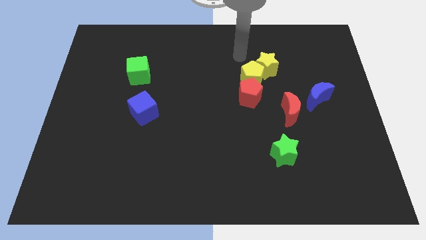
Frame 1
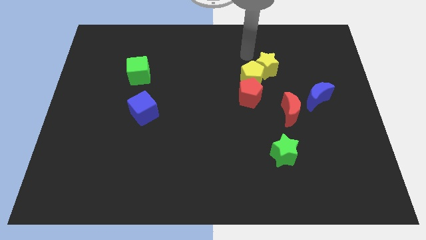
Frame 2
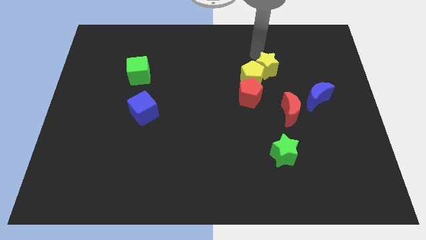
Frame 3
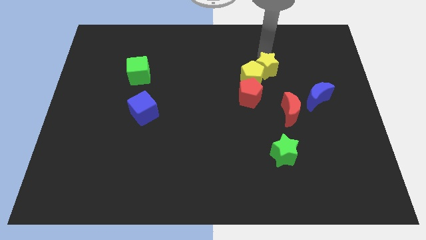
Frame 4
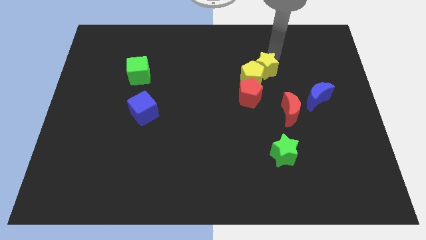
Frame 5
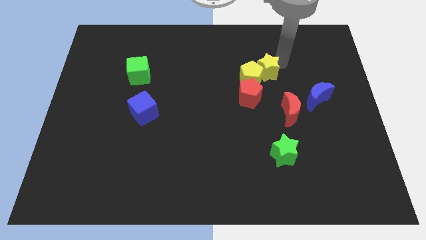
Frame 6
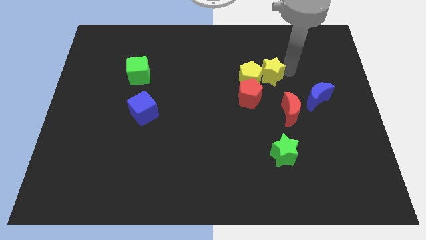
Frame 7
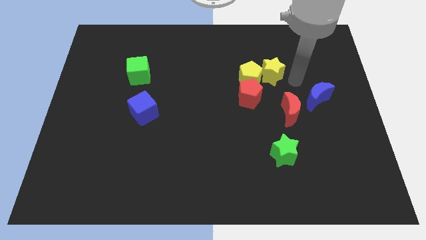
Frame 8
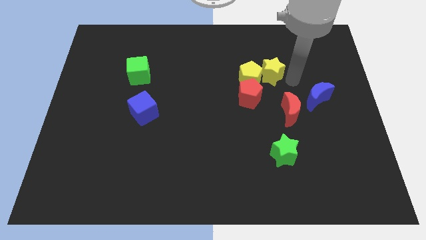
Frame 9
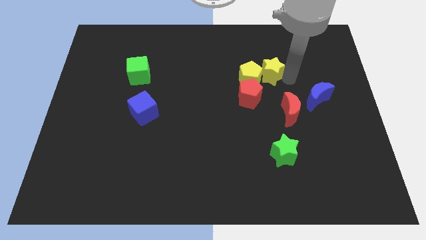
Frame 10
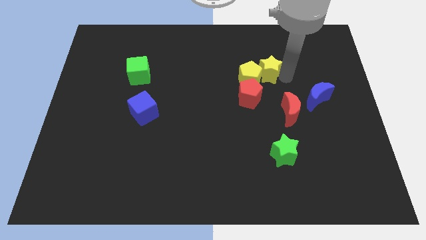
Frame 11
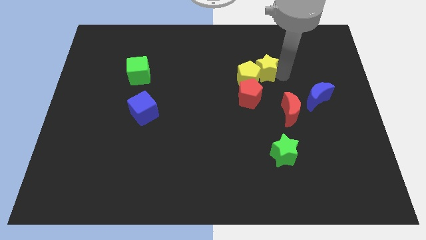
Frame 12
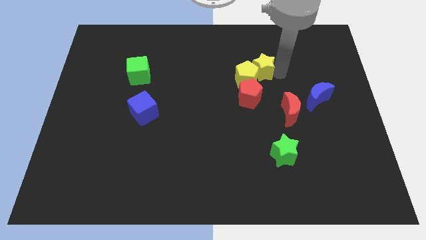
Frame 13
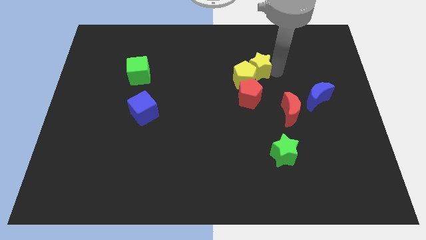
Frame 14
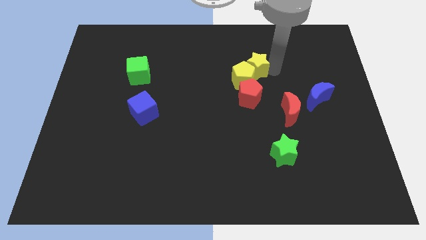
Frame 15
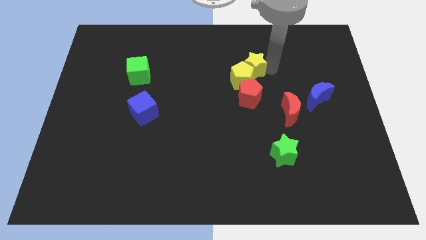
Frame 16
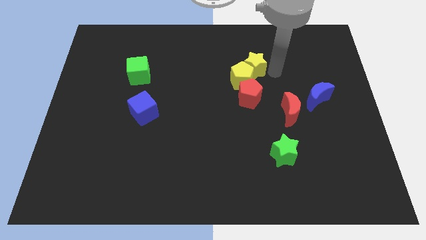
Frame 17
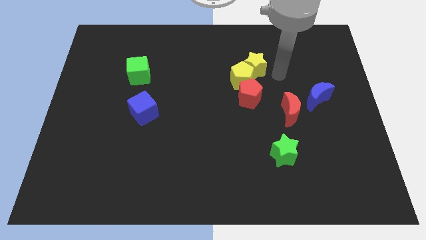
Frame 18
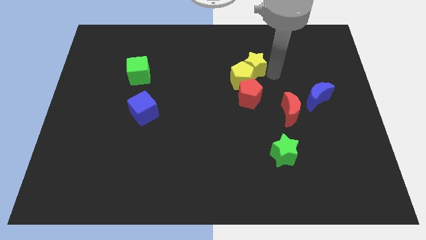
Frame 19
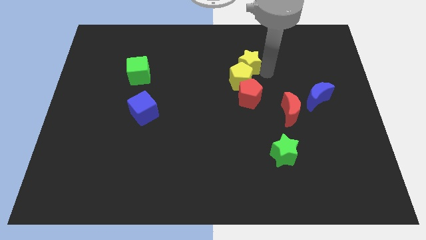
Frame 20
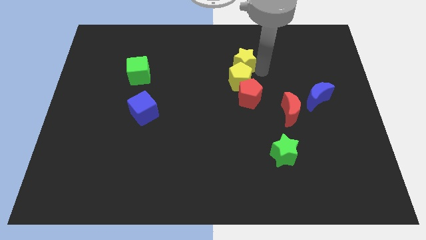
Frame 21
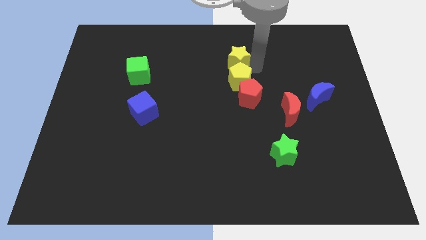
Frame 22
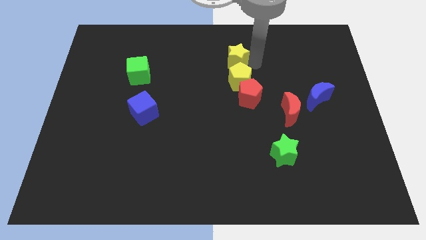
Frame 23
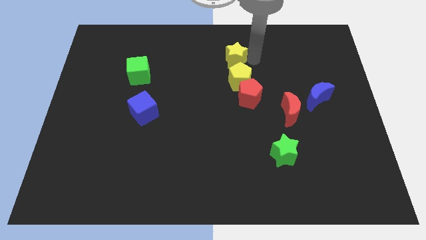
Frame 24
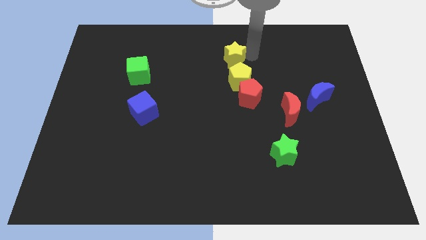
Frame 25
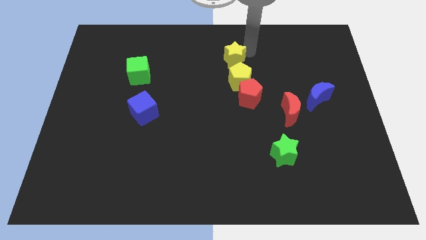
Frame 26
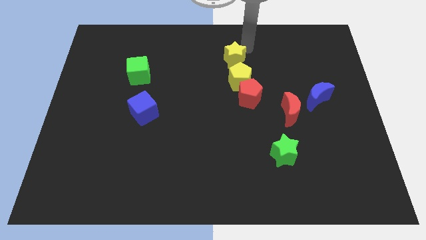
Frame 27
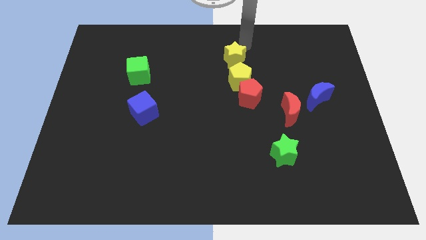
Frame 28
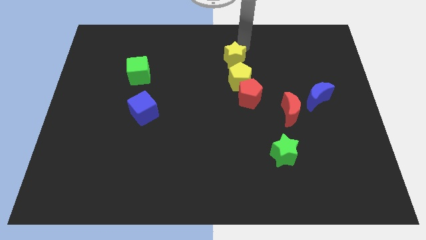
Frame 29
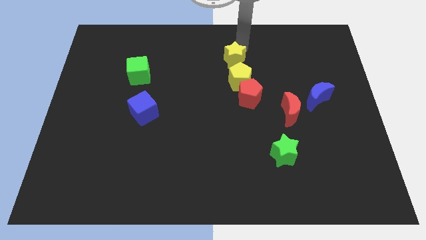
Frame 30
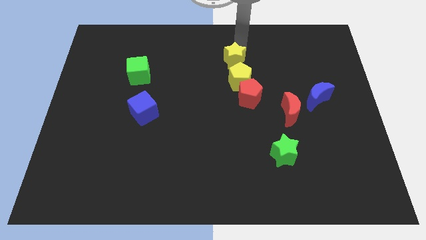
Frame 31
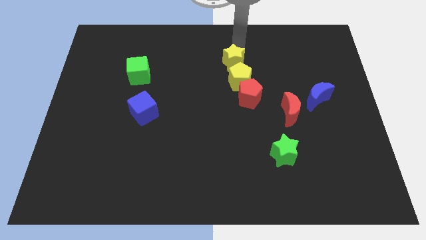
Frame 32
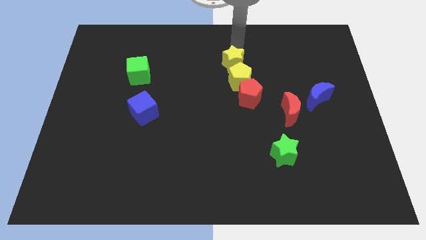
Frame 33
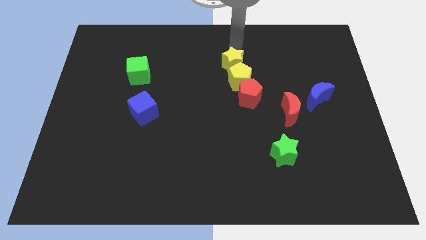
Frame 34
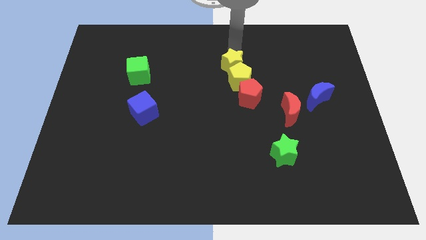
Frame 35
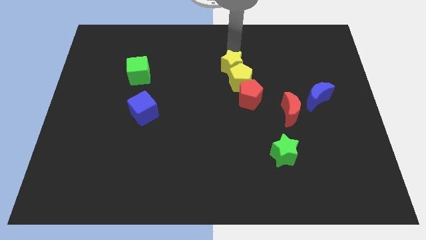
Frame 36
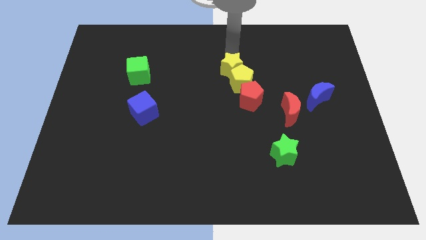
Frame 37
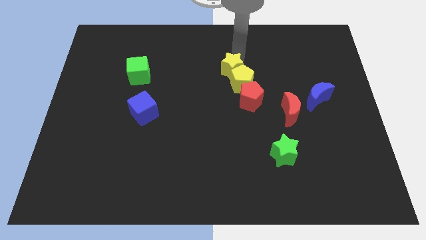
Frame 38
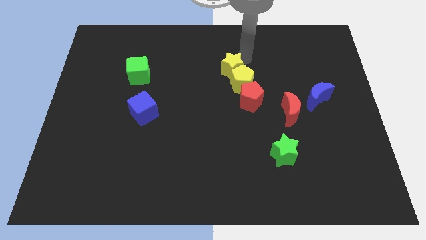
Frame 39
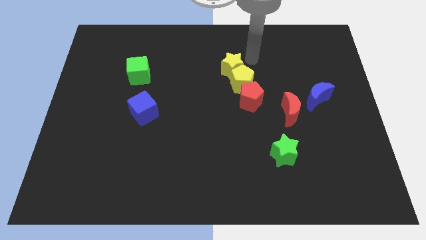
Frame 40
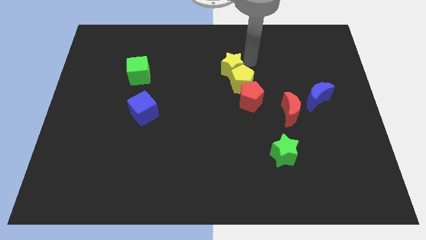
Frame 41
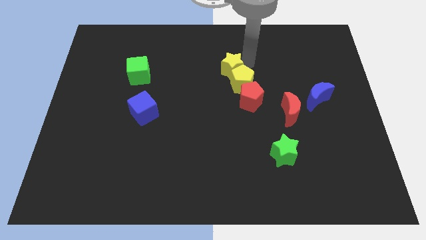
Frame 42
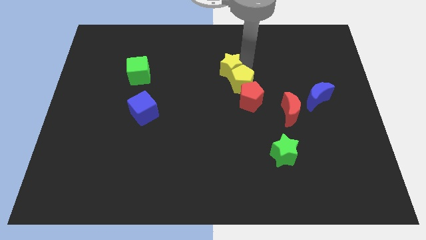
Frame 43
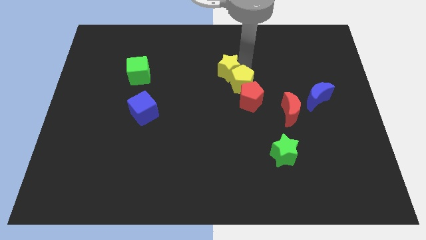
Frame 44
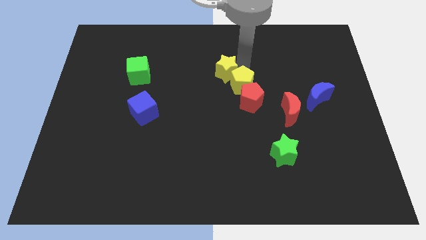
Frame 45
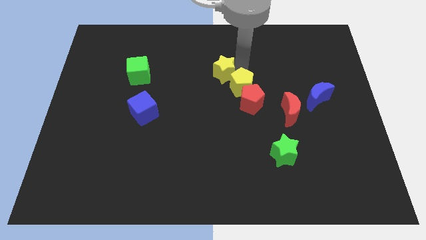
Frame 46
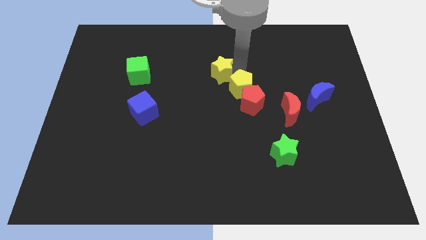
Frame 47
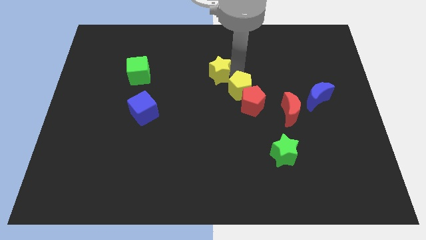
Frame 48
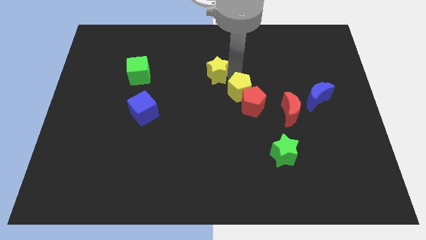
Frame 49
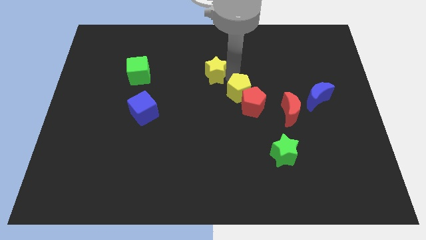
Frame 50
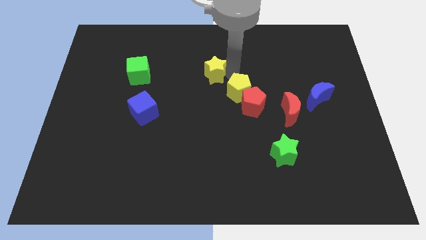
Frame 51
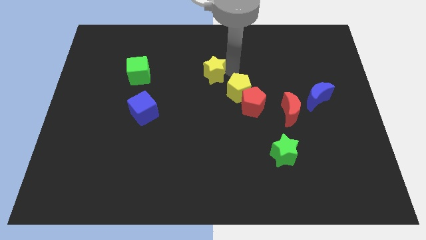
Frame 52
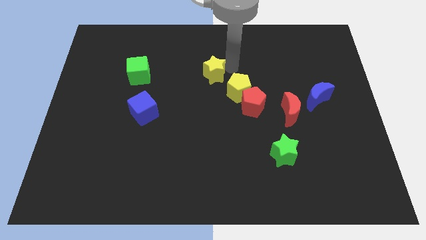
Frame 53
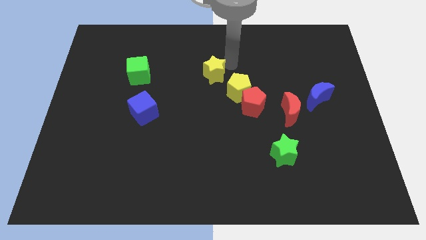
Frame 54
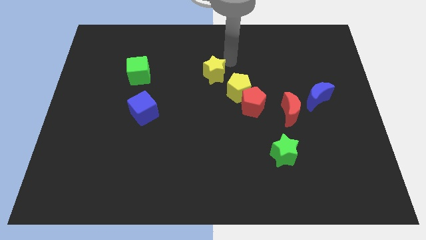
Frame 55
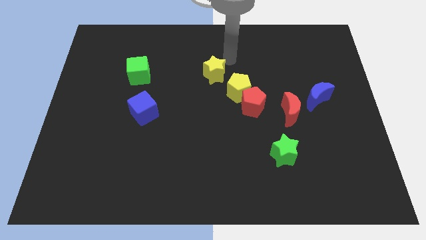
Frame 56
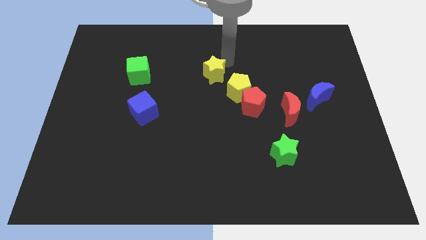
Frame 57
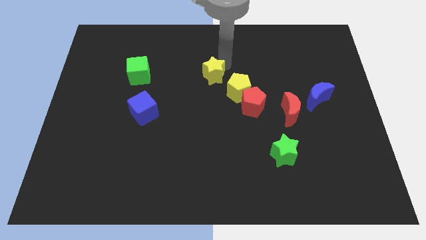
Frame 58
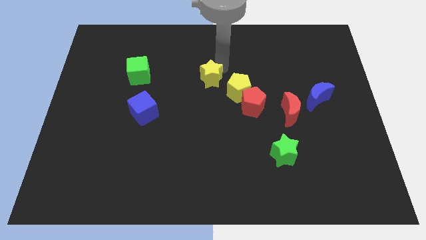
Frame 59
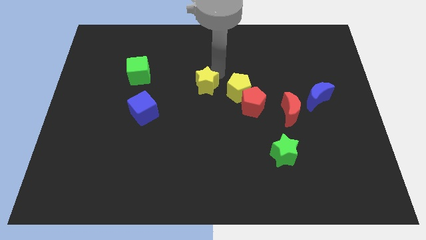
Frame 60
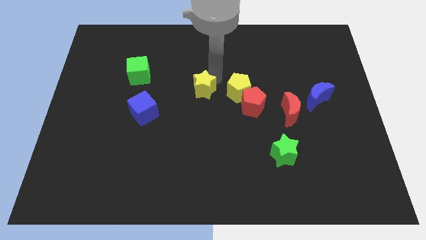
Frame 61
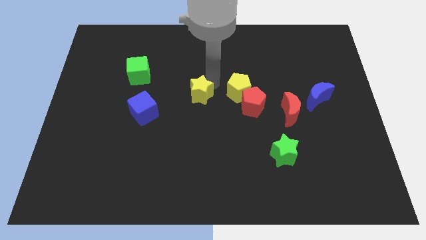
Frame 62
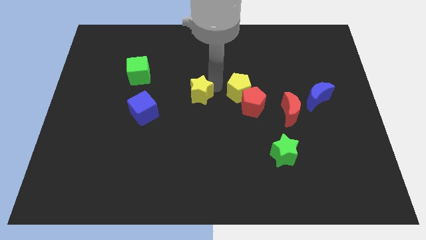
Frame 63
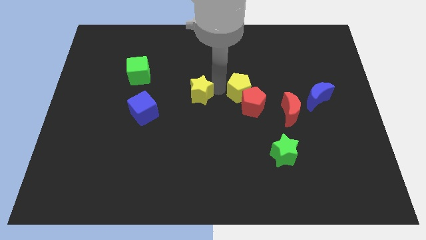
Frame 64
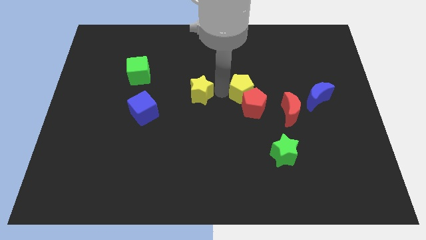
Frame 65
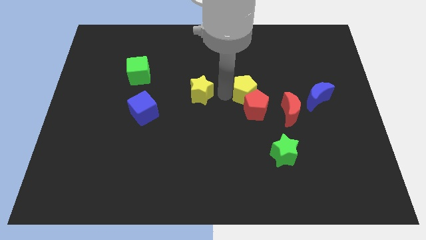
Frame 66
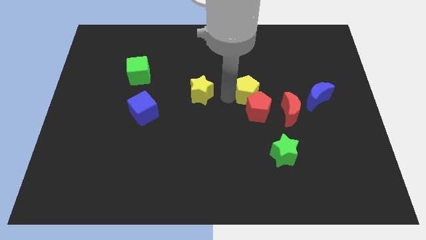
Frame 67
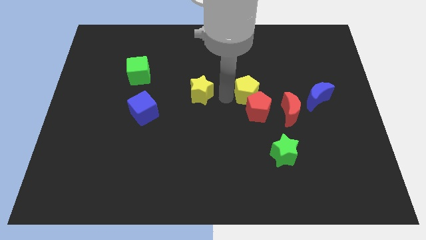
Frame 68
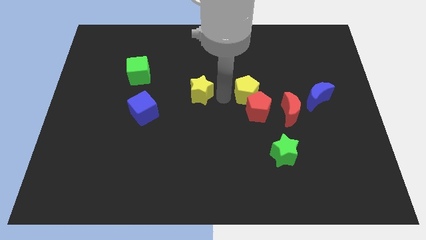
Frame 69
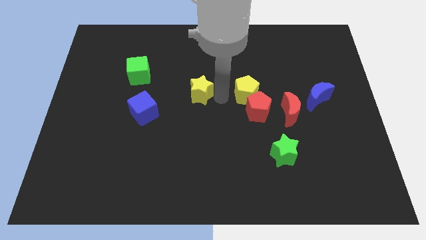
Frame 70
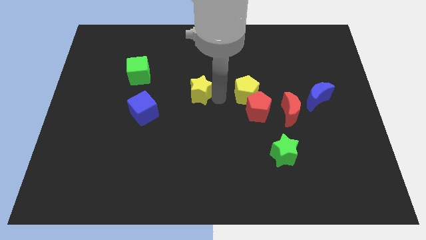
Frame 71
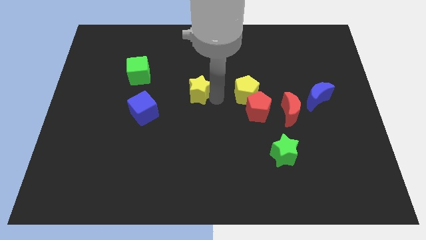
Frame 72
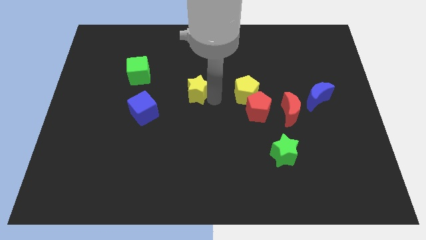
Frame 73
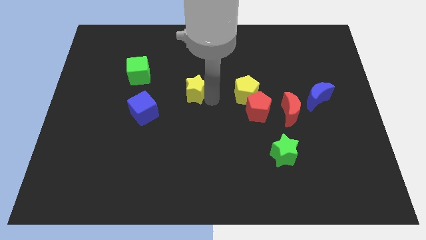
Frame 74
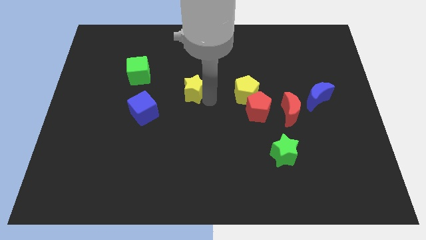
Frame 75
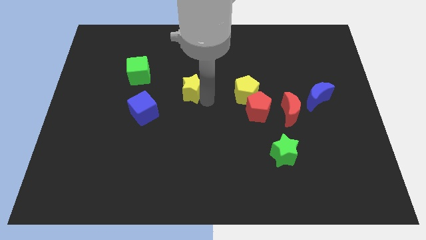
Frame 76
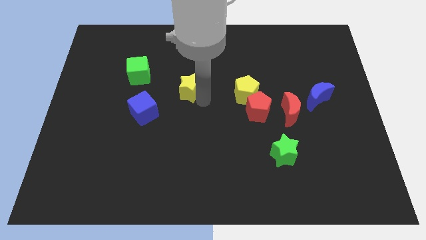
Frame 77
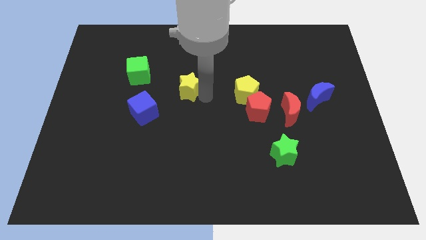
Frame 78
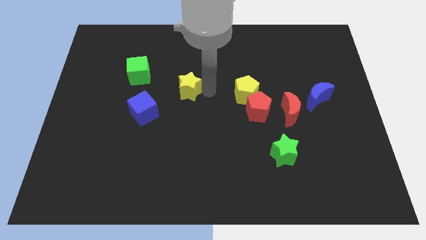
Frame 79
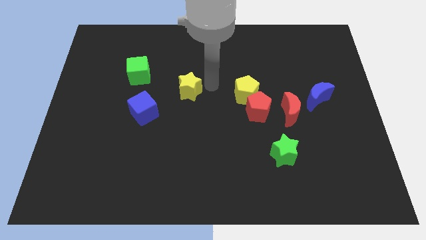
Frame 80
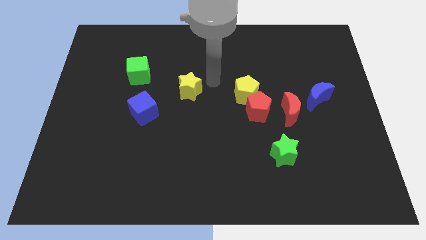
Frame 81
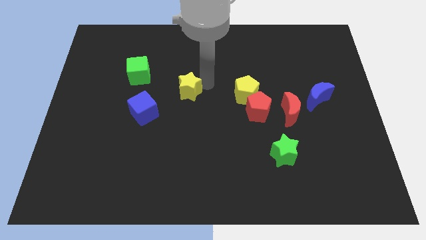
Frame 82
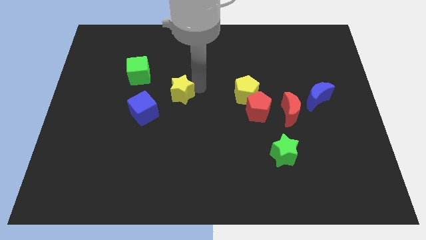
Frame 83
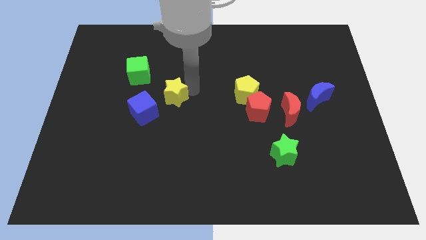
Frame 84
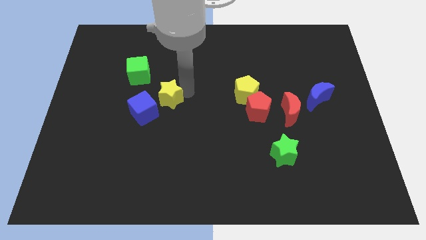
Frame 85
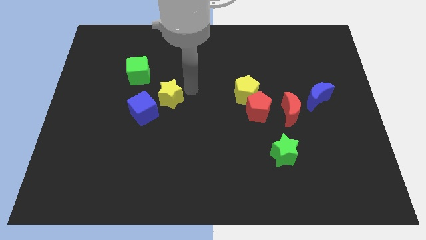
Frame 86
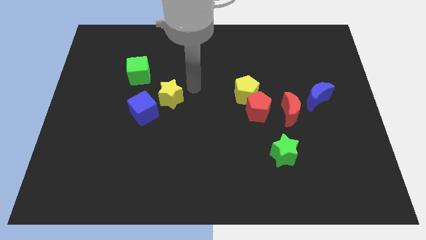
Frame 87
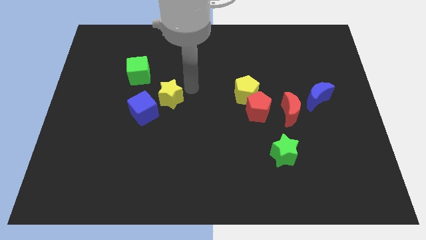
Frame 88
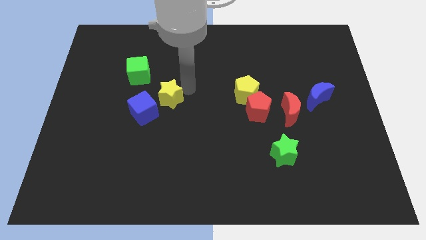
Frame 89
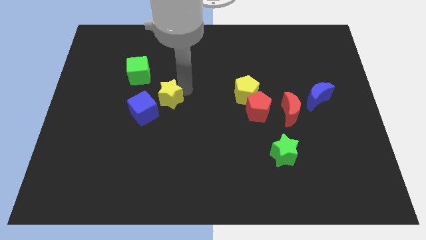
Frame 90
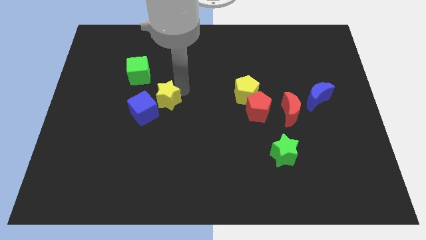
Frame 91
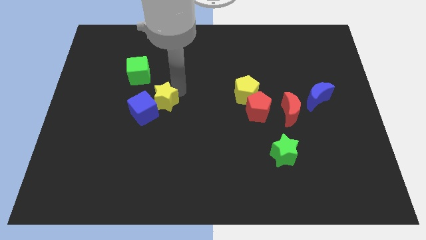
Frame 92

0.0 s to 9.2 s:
move the yellow star to the blue cube
